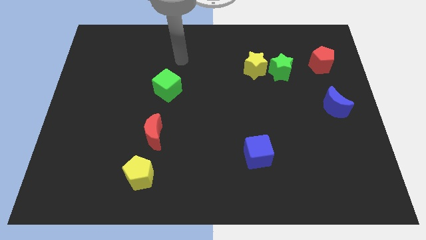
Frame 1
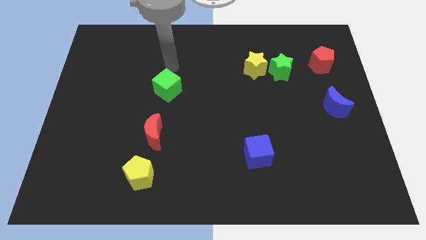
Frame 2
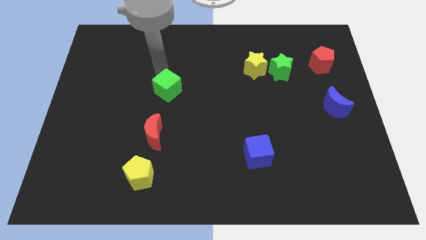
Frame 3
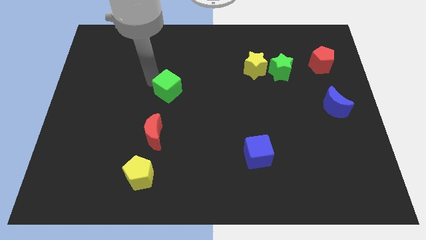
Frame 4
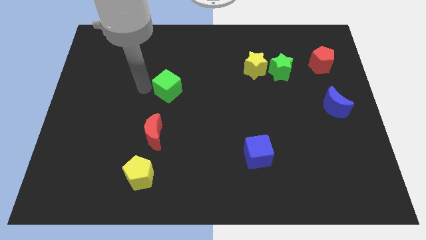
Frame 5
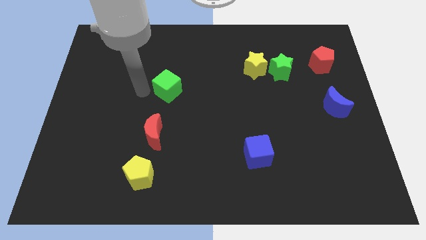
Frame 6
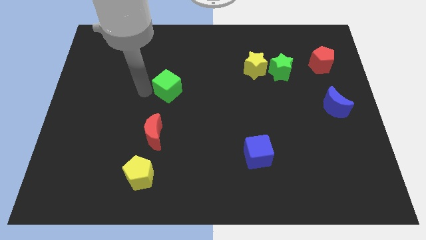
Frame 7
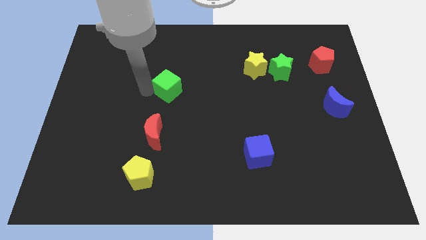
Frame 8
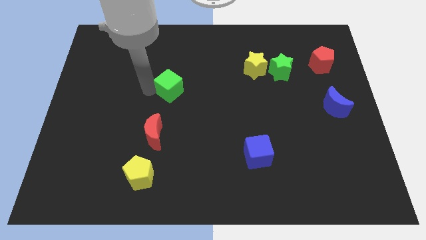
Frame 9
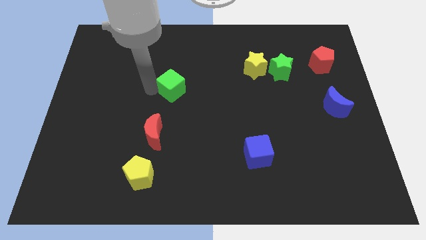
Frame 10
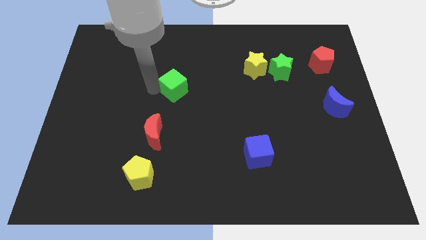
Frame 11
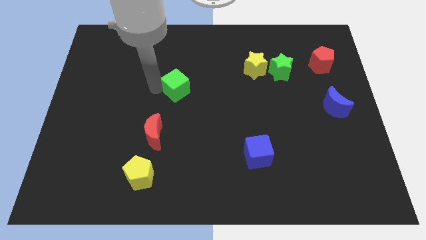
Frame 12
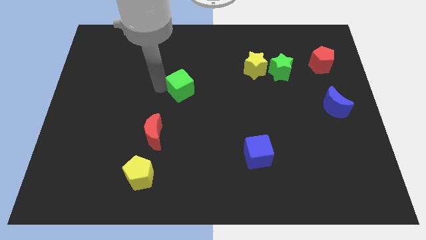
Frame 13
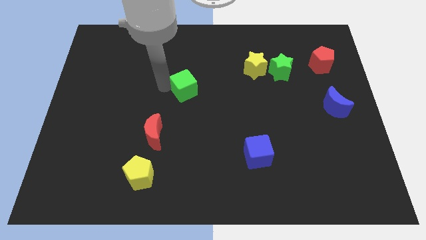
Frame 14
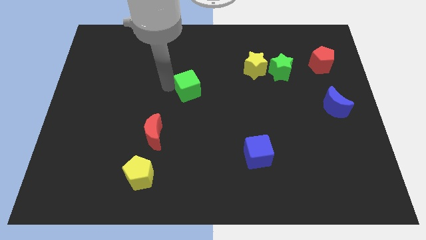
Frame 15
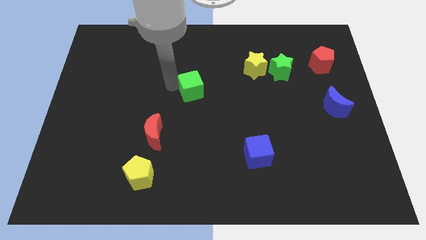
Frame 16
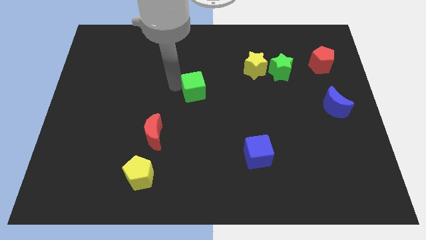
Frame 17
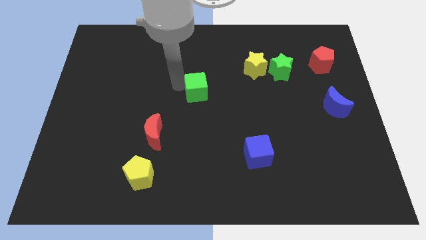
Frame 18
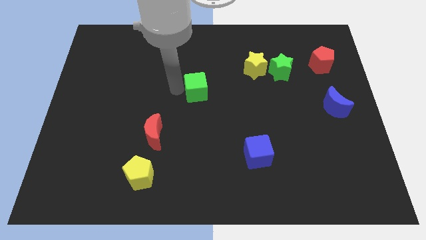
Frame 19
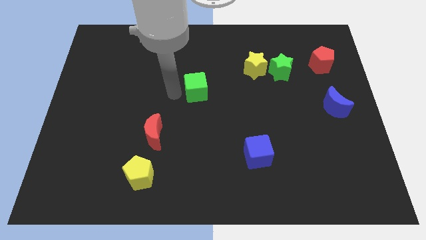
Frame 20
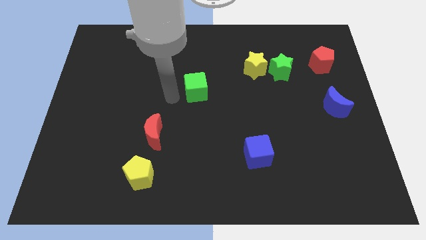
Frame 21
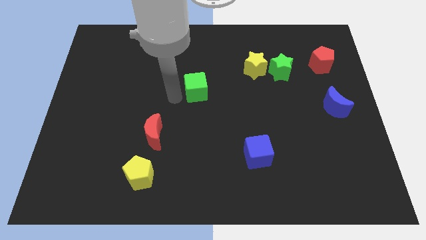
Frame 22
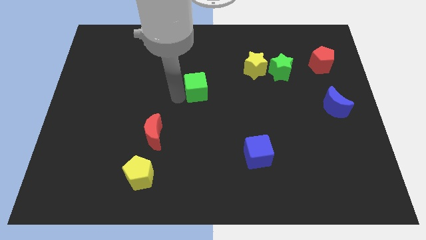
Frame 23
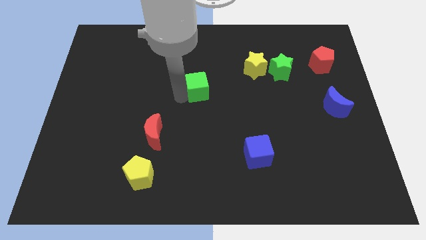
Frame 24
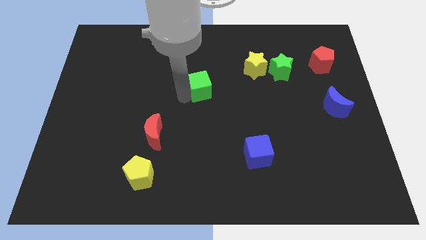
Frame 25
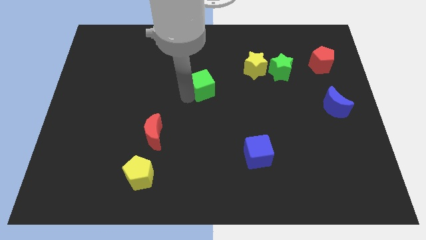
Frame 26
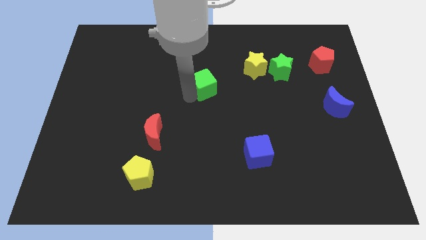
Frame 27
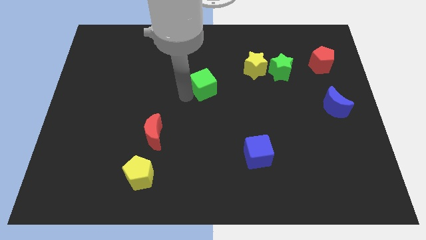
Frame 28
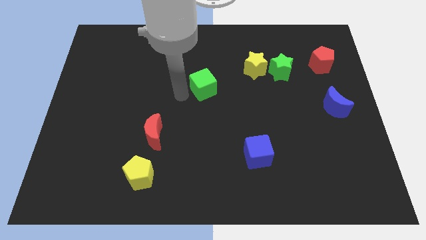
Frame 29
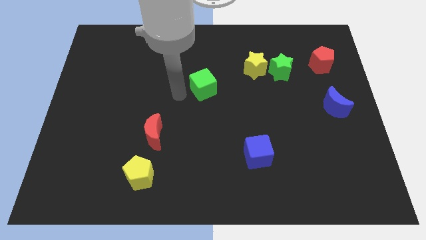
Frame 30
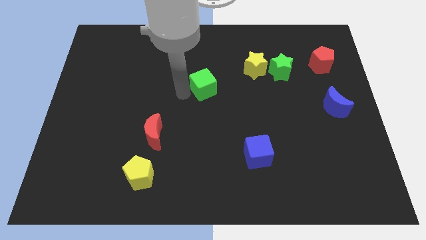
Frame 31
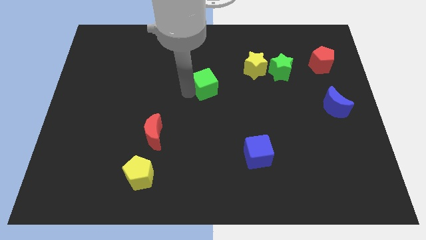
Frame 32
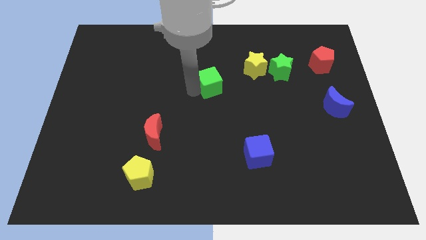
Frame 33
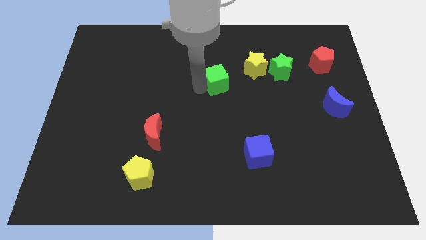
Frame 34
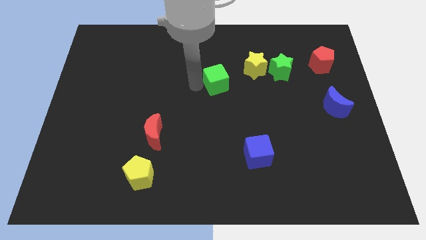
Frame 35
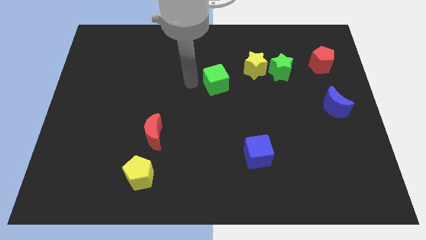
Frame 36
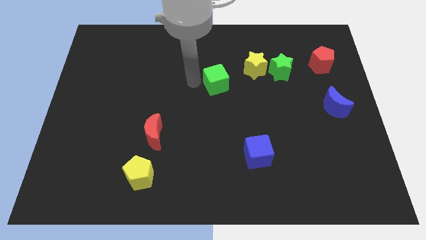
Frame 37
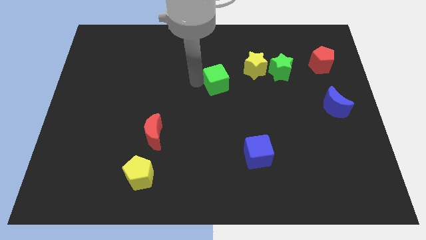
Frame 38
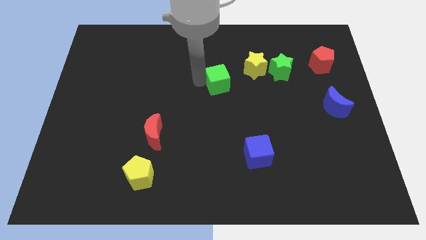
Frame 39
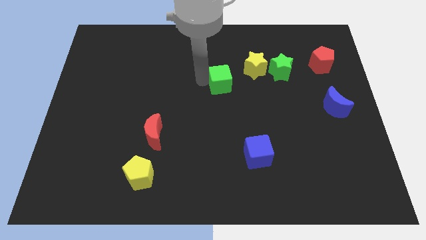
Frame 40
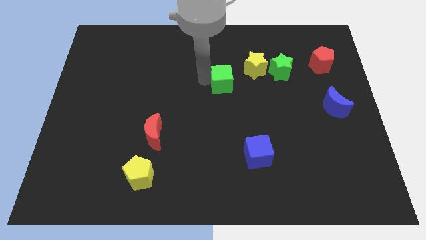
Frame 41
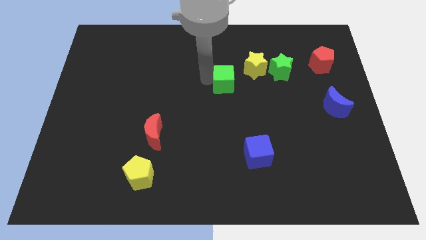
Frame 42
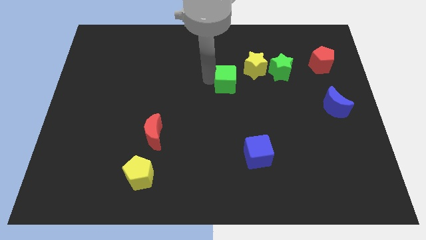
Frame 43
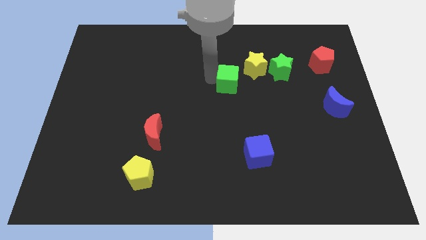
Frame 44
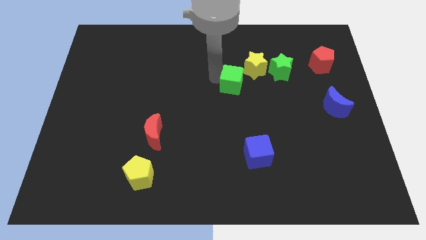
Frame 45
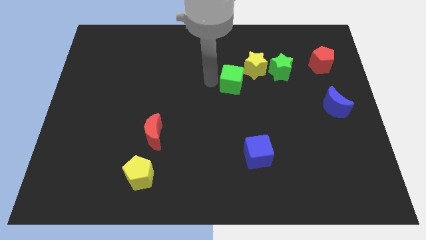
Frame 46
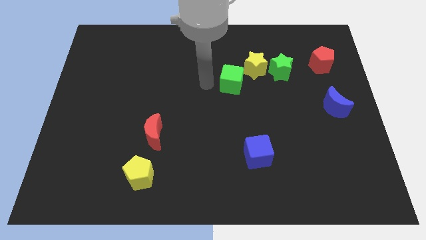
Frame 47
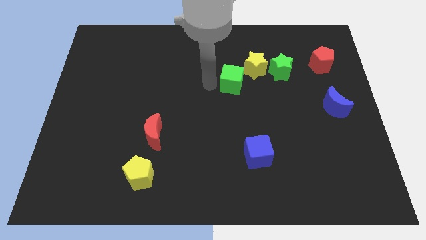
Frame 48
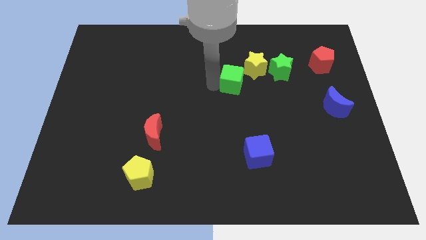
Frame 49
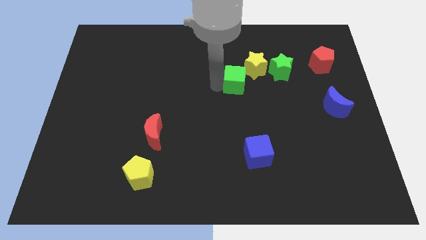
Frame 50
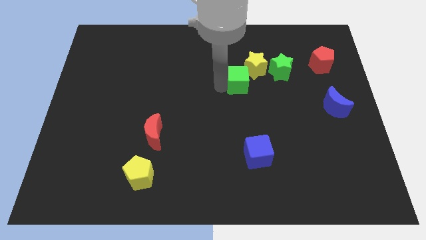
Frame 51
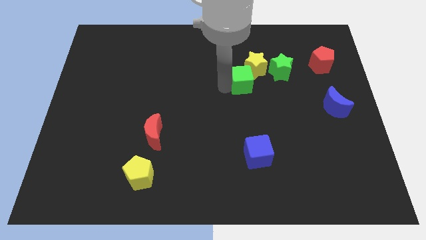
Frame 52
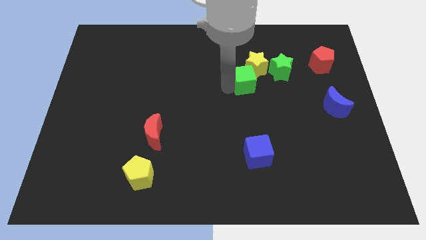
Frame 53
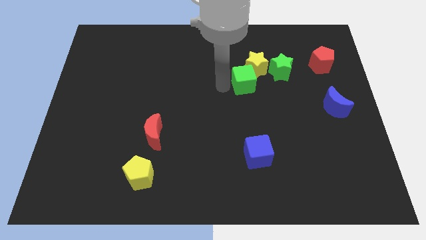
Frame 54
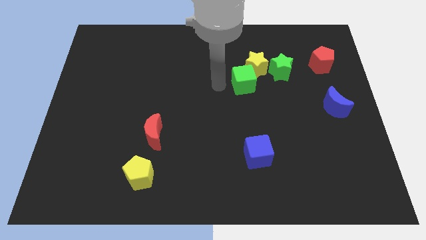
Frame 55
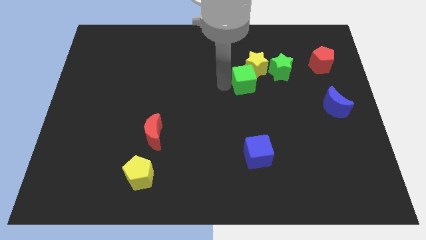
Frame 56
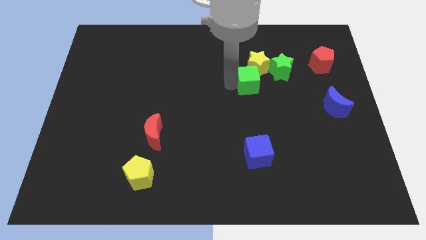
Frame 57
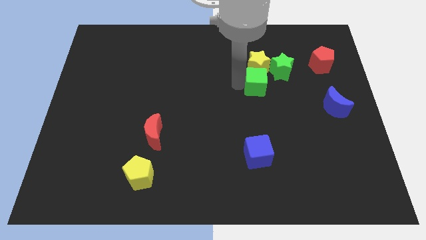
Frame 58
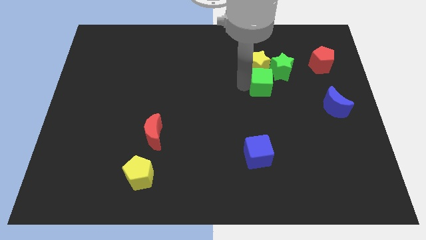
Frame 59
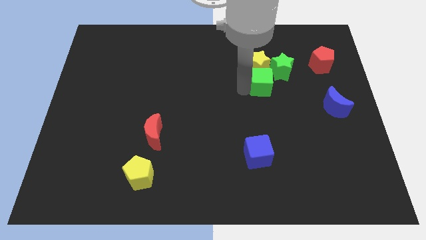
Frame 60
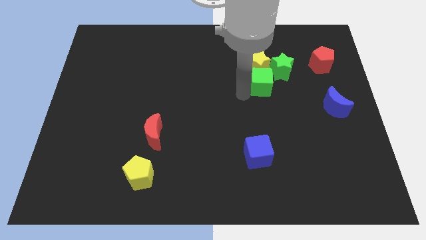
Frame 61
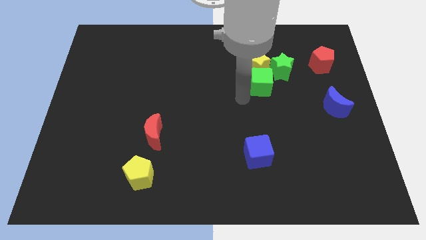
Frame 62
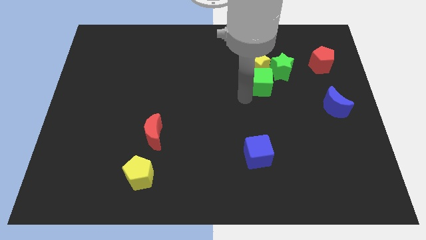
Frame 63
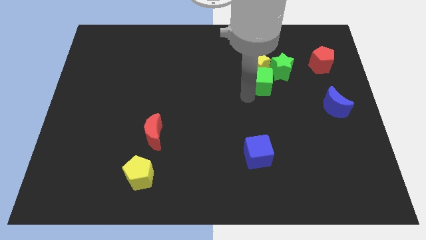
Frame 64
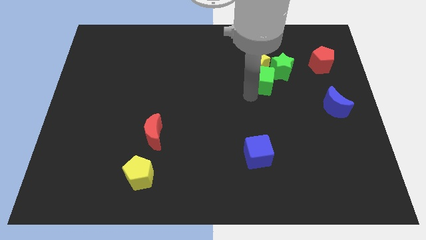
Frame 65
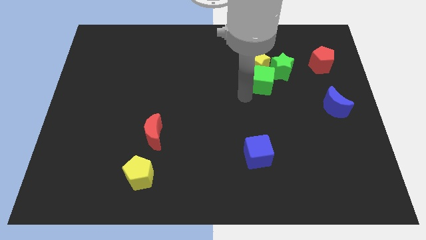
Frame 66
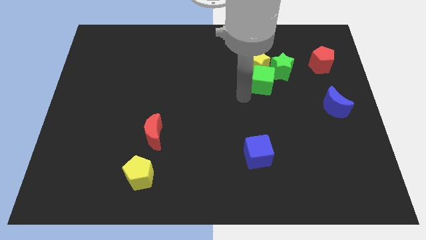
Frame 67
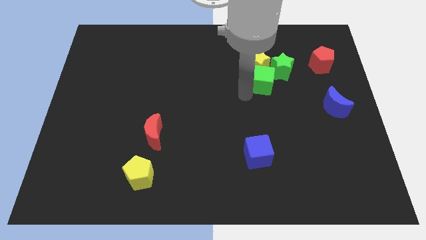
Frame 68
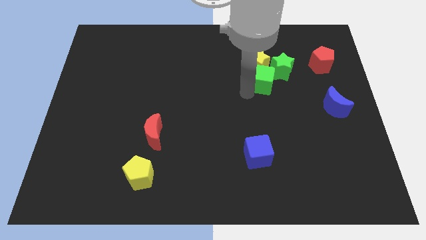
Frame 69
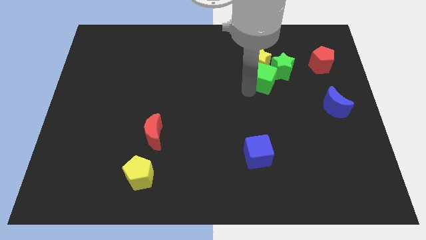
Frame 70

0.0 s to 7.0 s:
push the green cube next to the green star
